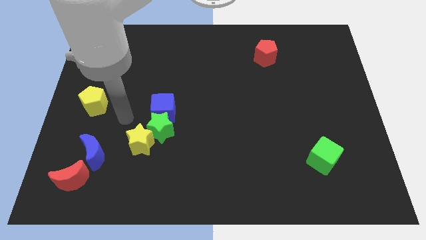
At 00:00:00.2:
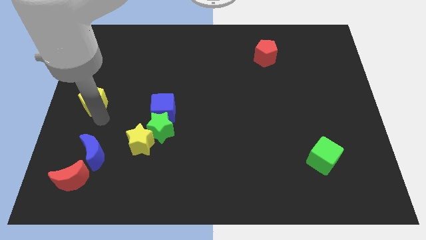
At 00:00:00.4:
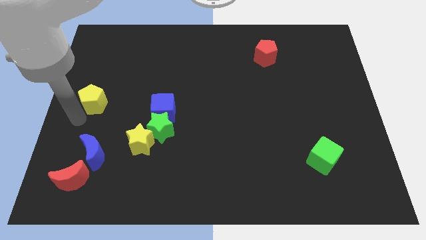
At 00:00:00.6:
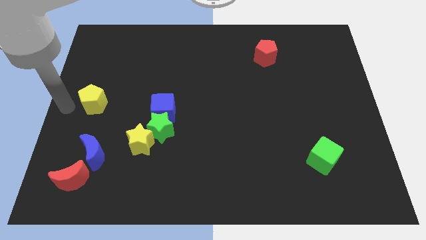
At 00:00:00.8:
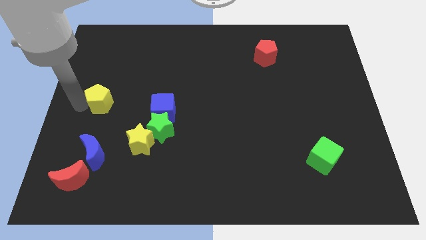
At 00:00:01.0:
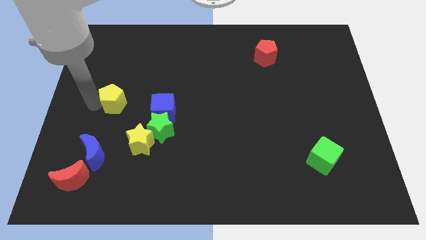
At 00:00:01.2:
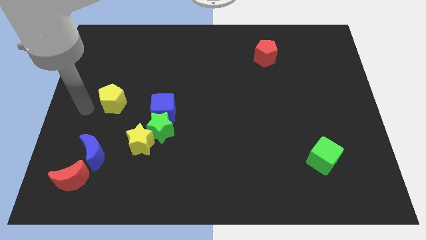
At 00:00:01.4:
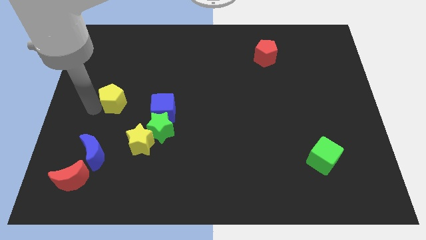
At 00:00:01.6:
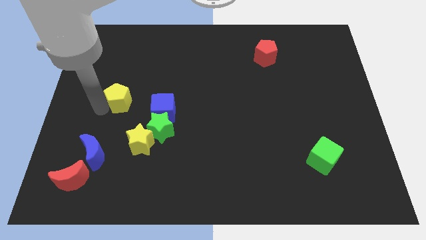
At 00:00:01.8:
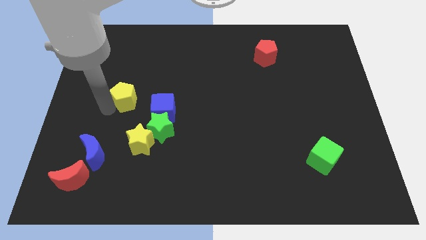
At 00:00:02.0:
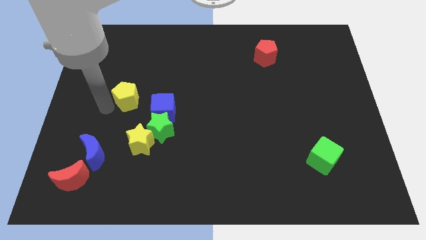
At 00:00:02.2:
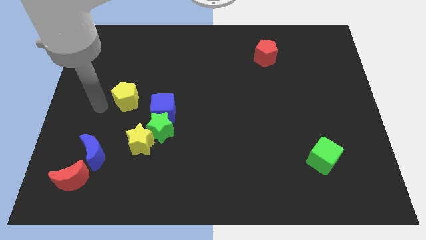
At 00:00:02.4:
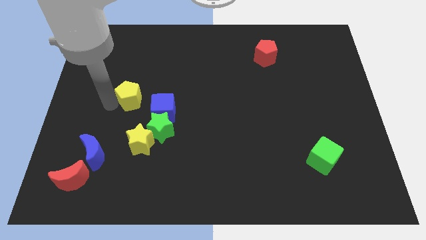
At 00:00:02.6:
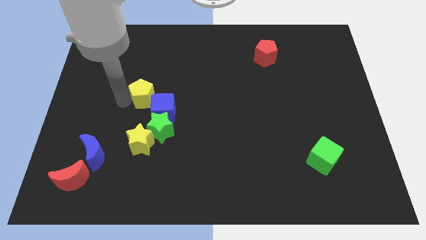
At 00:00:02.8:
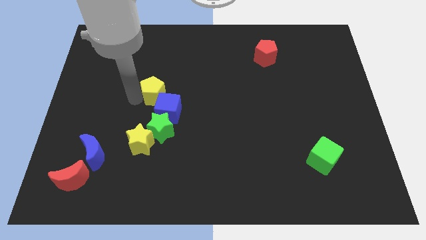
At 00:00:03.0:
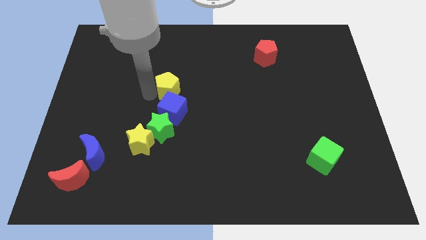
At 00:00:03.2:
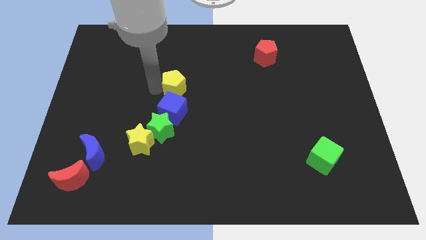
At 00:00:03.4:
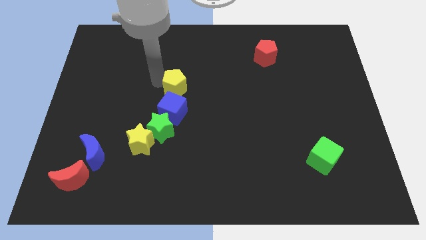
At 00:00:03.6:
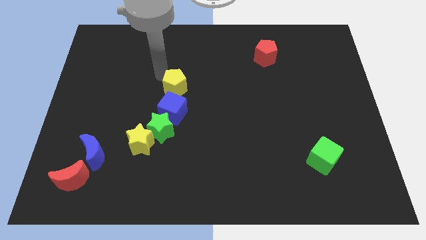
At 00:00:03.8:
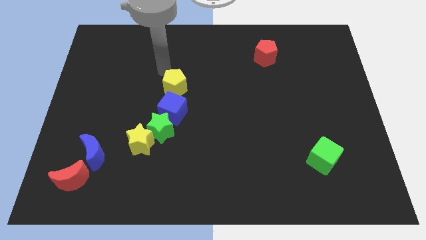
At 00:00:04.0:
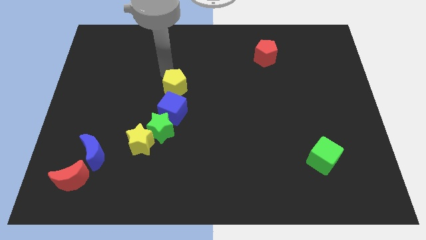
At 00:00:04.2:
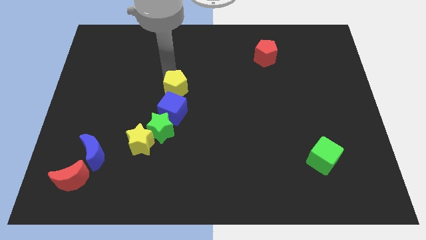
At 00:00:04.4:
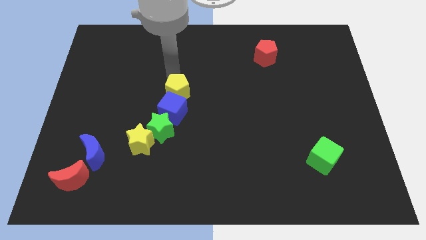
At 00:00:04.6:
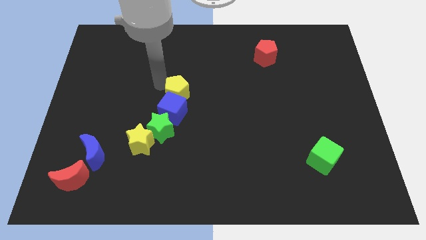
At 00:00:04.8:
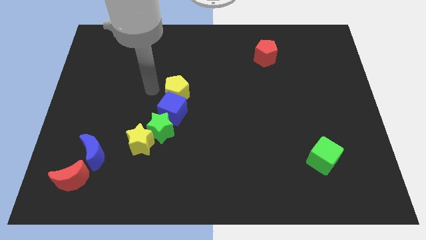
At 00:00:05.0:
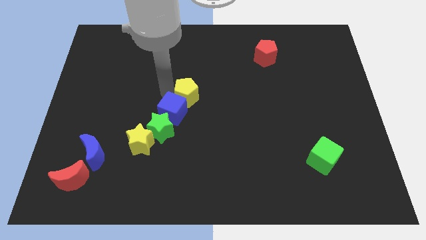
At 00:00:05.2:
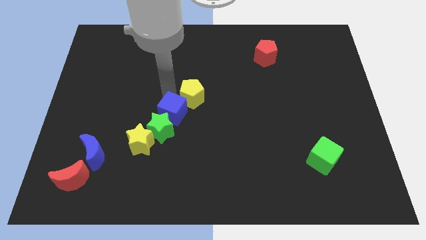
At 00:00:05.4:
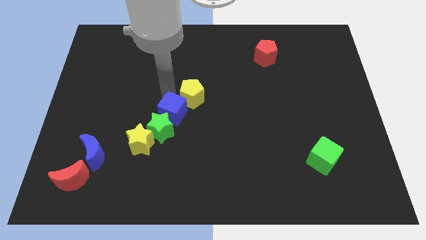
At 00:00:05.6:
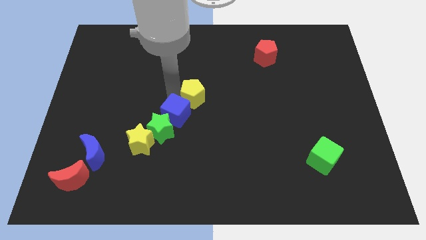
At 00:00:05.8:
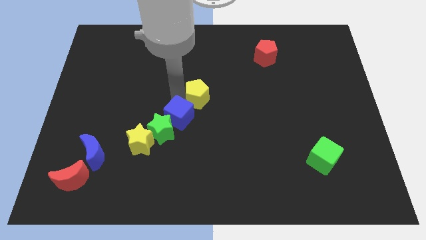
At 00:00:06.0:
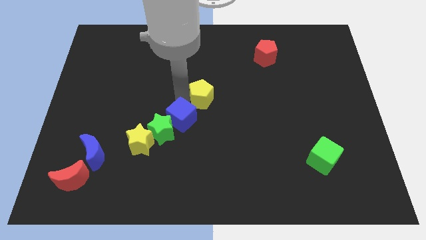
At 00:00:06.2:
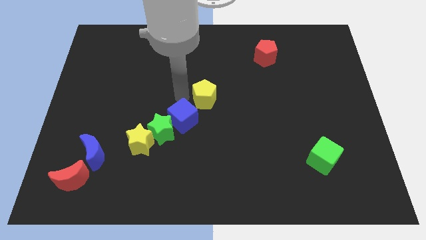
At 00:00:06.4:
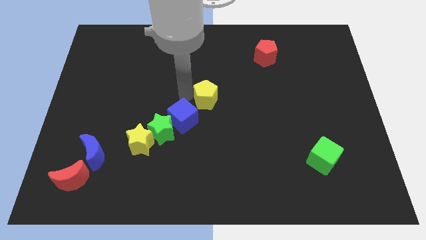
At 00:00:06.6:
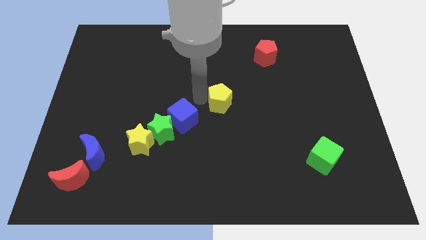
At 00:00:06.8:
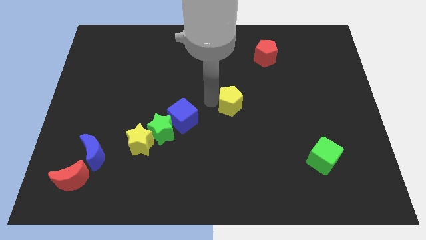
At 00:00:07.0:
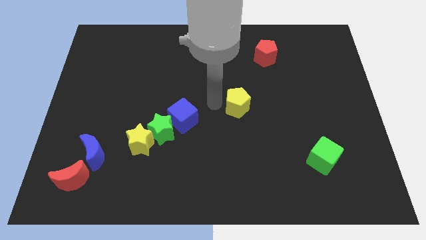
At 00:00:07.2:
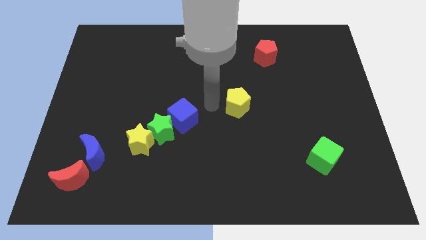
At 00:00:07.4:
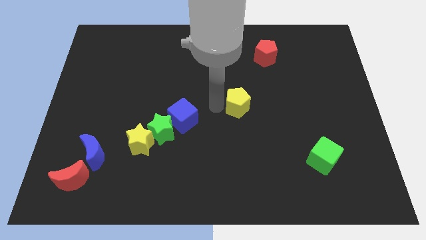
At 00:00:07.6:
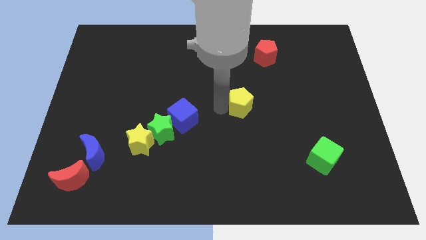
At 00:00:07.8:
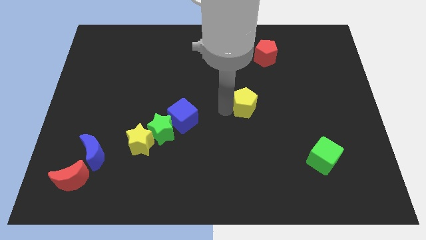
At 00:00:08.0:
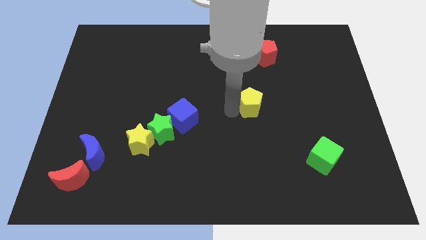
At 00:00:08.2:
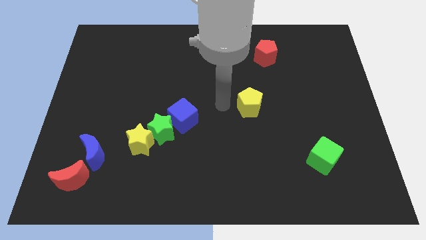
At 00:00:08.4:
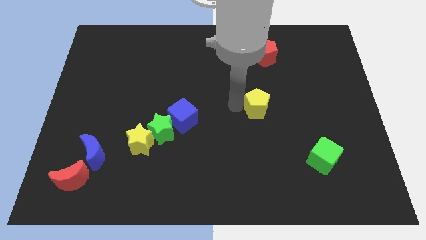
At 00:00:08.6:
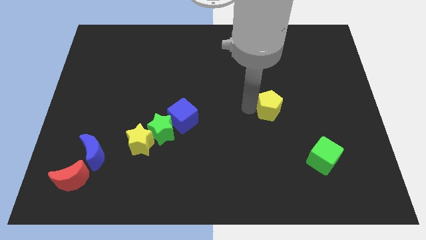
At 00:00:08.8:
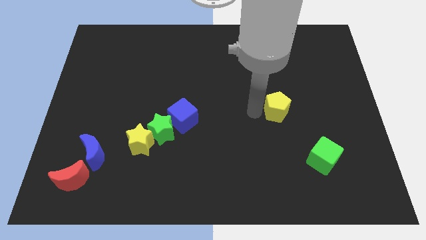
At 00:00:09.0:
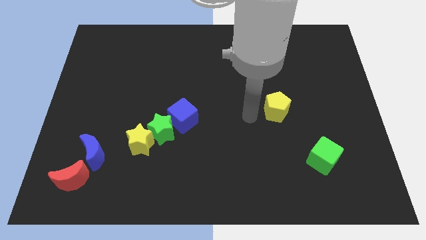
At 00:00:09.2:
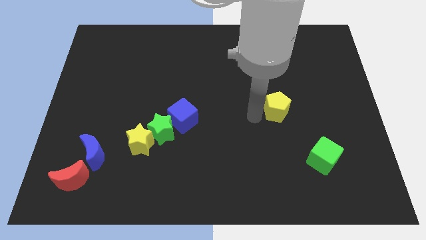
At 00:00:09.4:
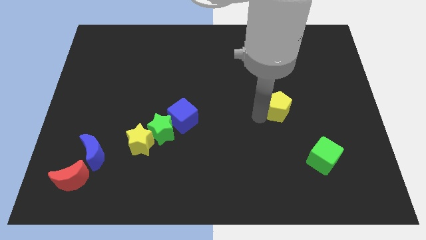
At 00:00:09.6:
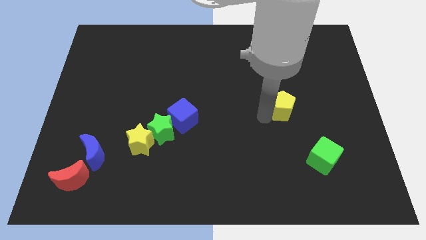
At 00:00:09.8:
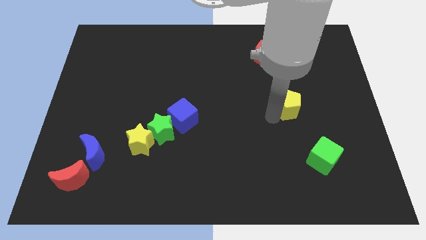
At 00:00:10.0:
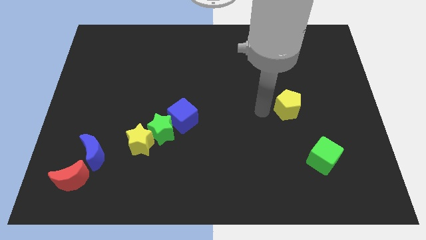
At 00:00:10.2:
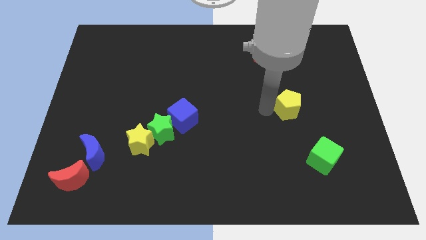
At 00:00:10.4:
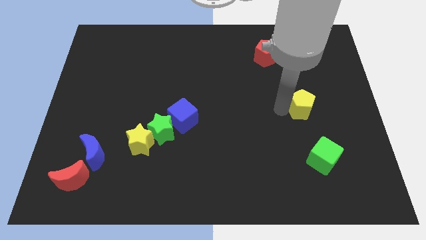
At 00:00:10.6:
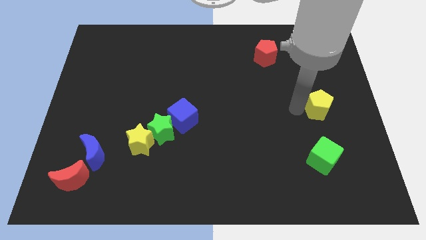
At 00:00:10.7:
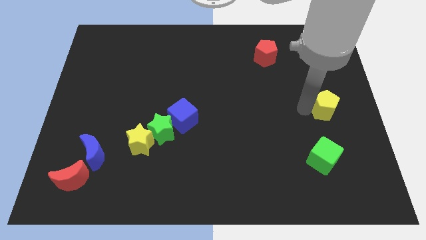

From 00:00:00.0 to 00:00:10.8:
slide the yellow pentagon to the right side of the board
